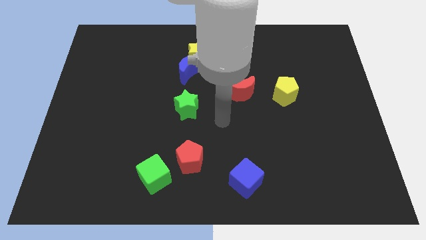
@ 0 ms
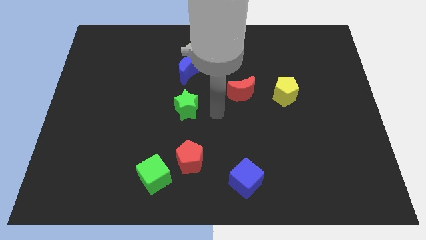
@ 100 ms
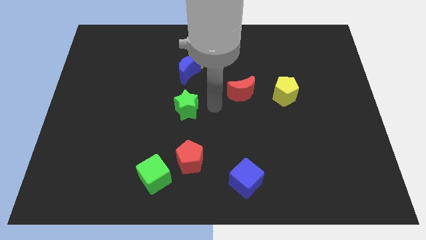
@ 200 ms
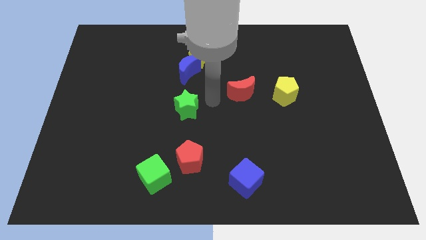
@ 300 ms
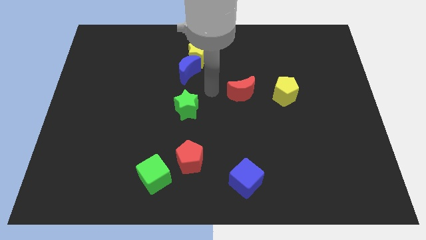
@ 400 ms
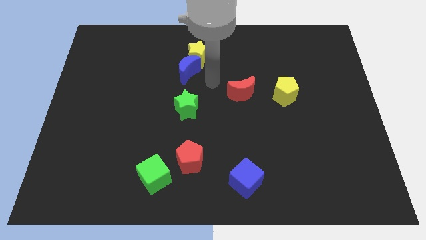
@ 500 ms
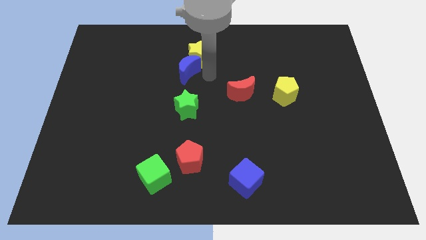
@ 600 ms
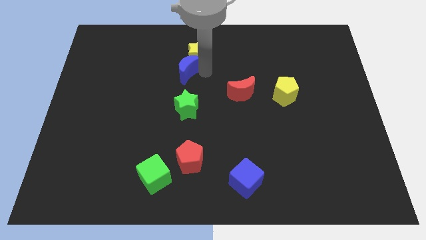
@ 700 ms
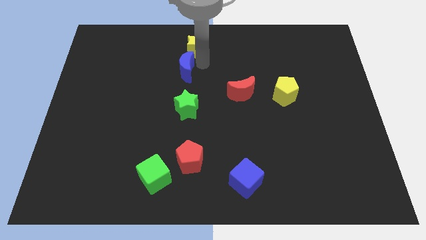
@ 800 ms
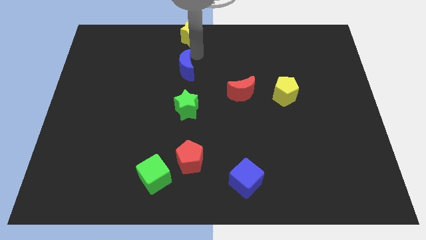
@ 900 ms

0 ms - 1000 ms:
separate the blue moon from the yellow star

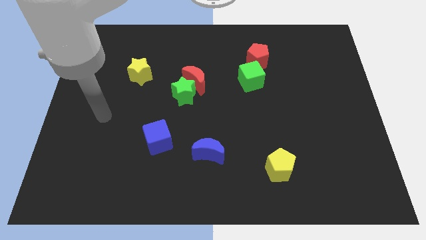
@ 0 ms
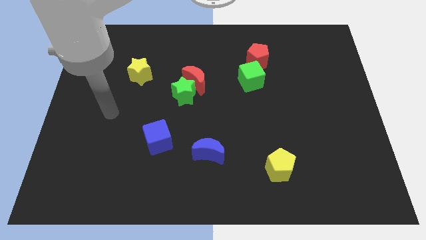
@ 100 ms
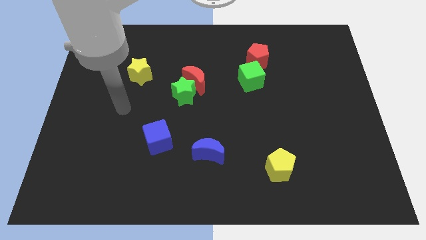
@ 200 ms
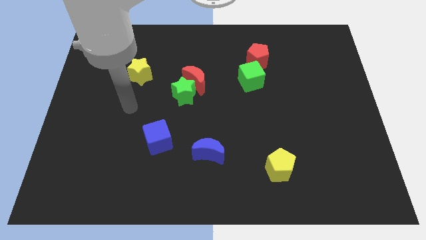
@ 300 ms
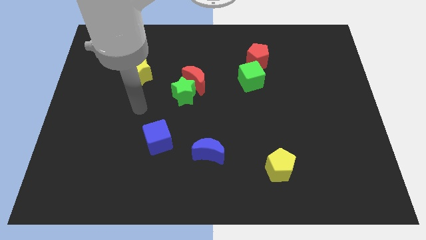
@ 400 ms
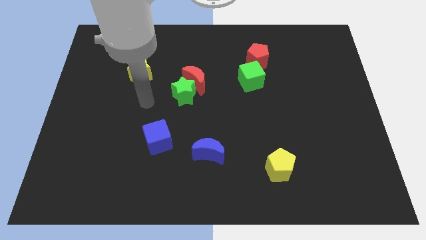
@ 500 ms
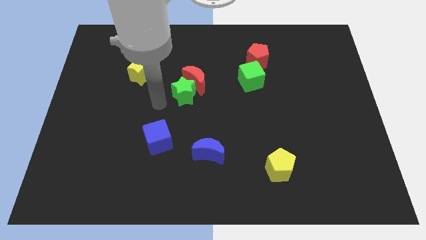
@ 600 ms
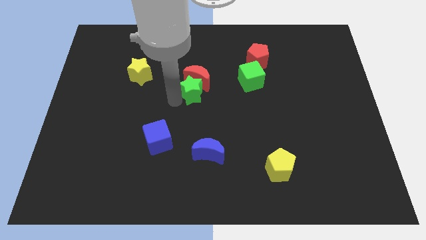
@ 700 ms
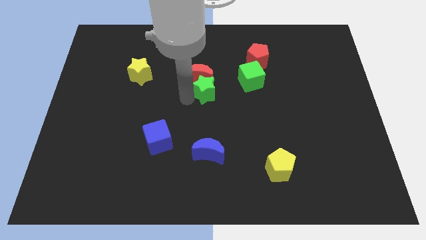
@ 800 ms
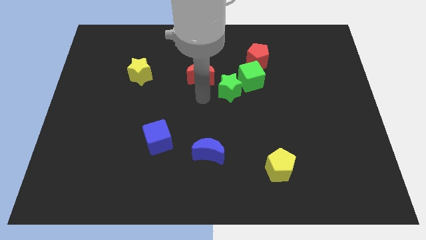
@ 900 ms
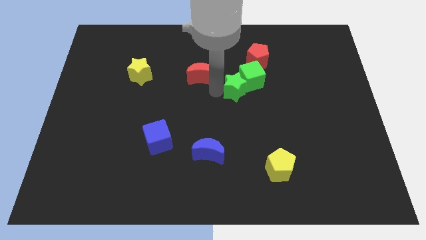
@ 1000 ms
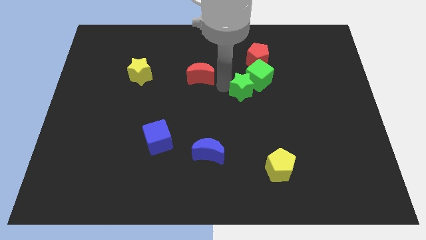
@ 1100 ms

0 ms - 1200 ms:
pull the red moon apart from the green star

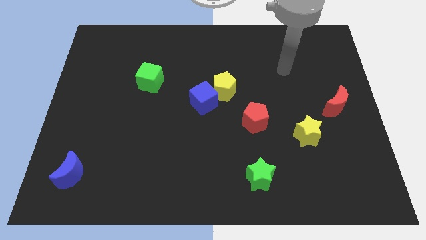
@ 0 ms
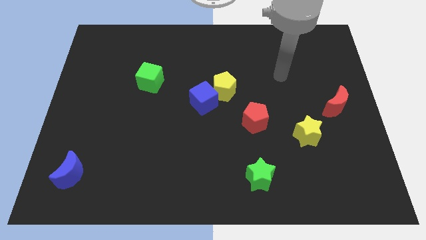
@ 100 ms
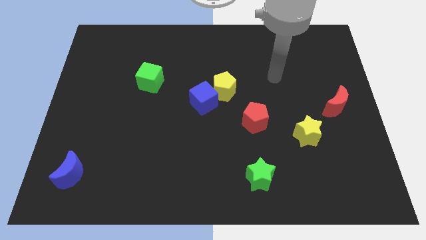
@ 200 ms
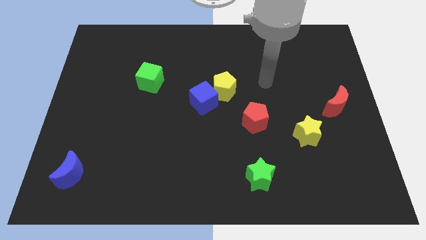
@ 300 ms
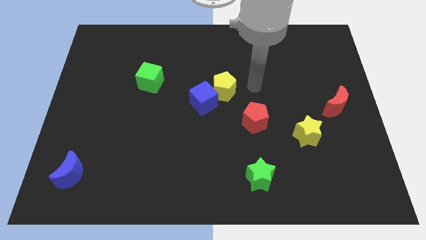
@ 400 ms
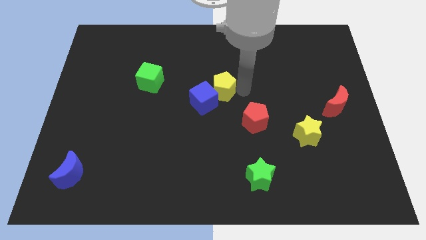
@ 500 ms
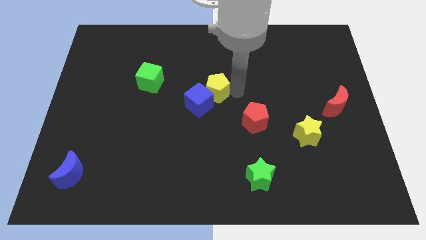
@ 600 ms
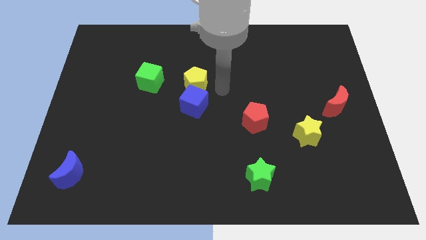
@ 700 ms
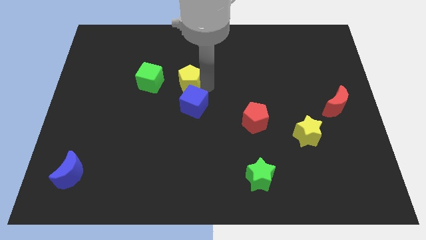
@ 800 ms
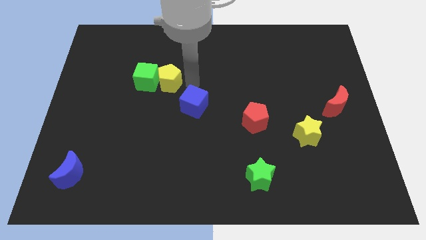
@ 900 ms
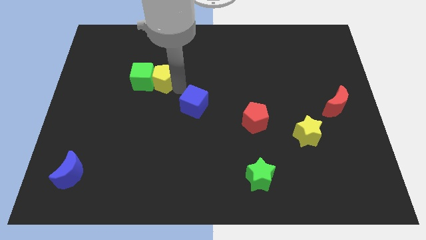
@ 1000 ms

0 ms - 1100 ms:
separate the blue cube from the yellow pentagon

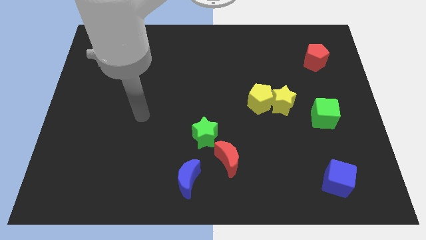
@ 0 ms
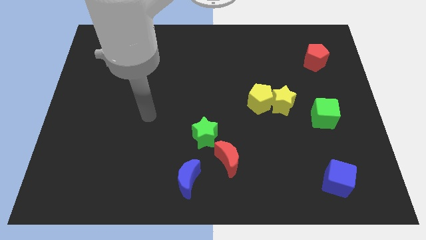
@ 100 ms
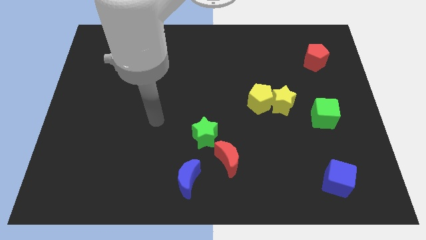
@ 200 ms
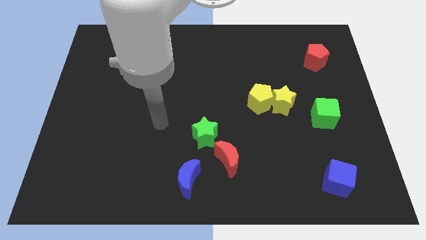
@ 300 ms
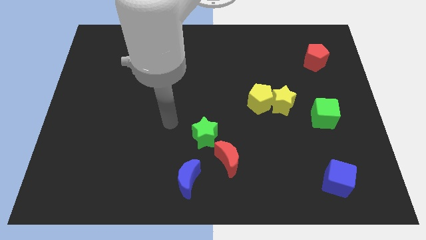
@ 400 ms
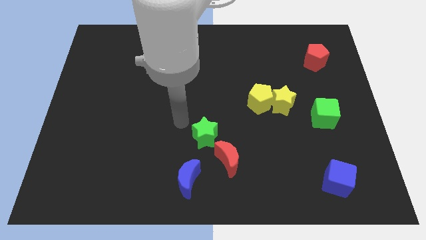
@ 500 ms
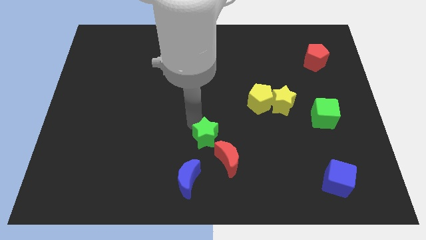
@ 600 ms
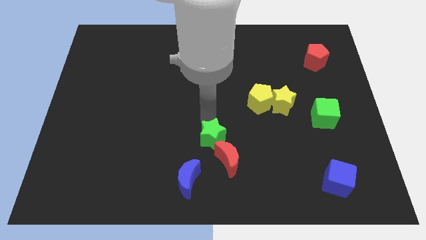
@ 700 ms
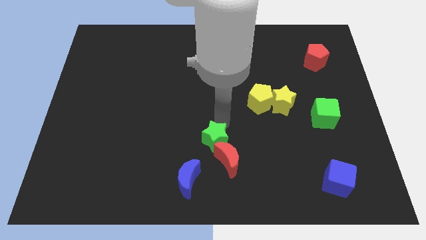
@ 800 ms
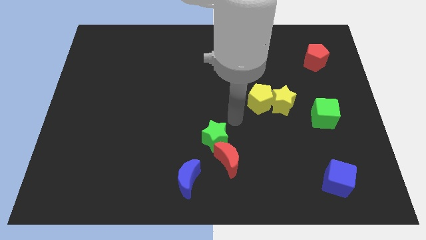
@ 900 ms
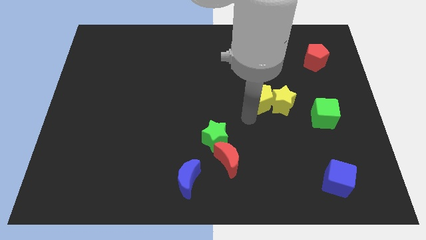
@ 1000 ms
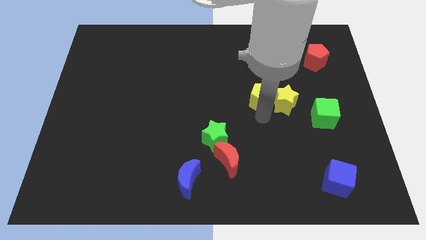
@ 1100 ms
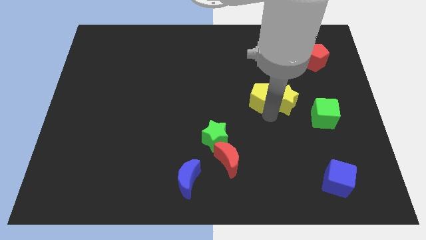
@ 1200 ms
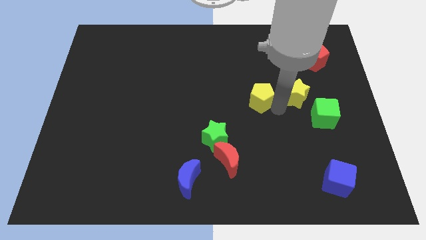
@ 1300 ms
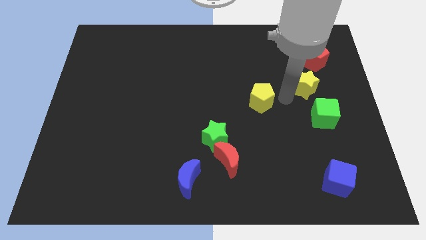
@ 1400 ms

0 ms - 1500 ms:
pull the yellow pentagon apart from the yellow star

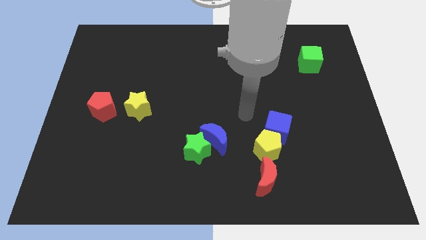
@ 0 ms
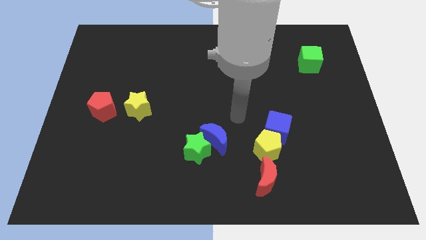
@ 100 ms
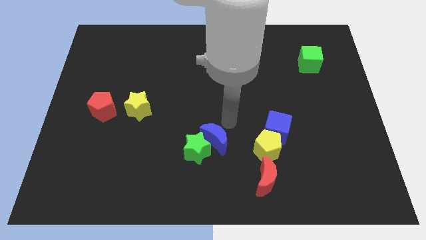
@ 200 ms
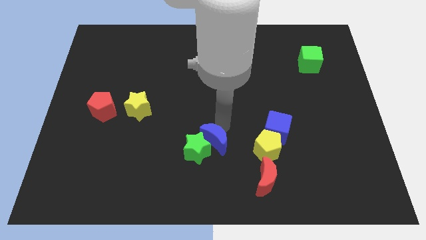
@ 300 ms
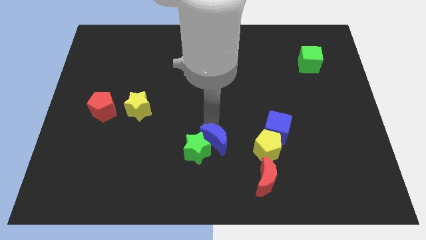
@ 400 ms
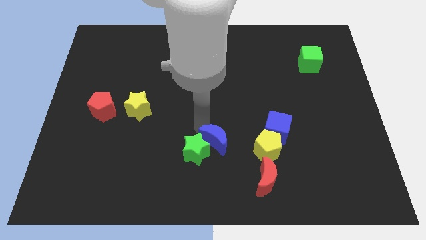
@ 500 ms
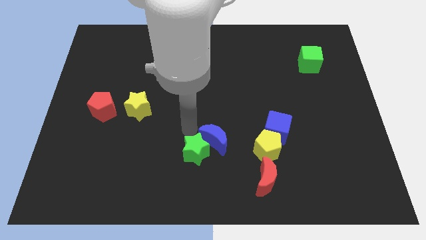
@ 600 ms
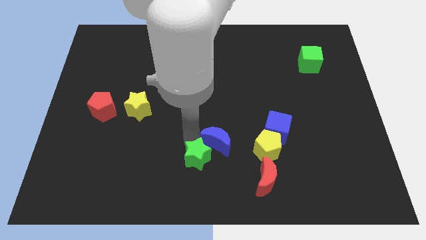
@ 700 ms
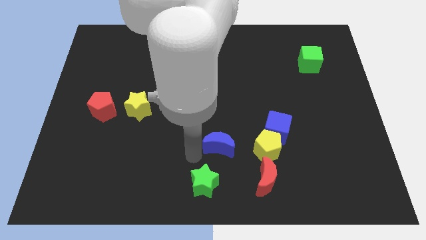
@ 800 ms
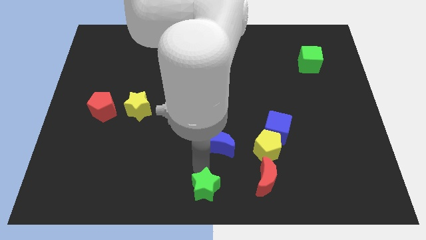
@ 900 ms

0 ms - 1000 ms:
move the blue moon away from the green star

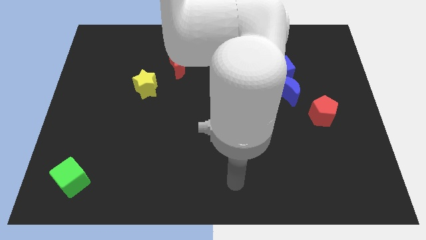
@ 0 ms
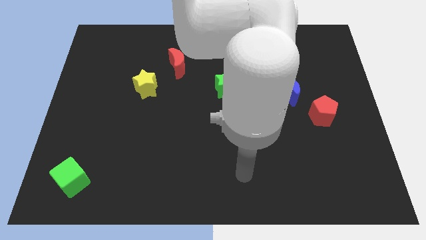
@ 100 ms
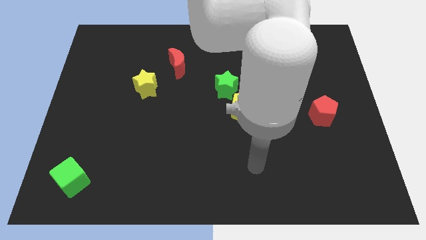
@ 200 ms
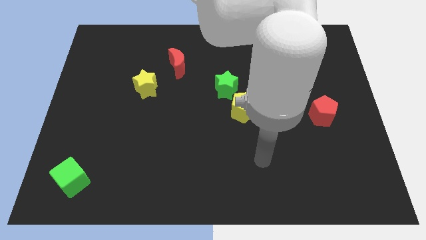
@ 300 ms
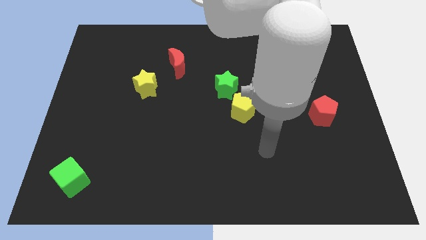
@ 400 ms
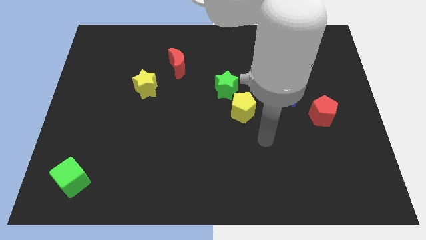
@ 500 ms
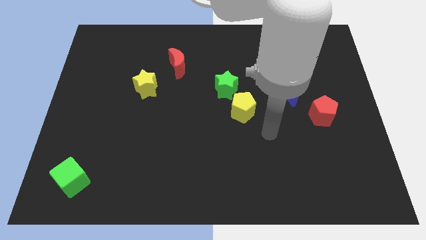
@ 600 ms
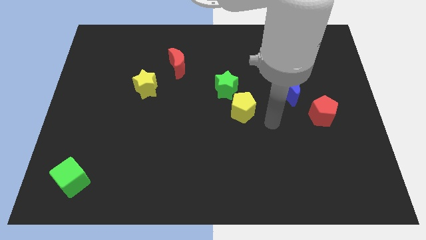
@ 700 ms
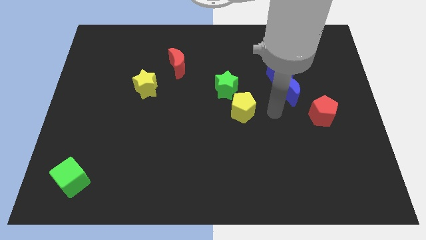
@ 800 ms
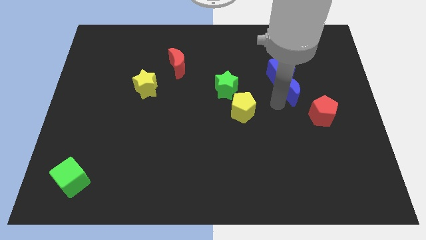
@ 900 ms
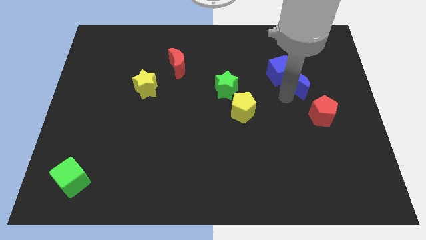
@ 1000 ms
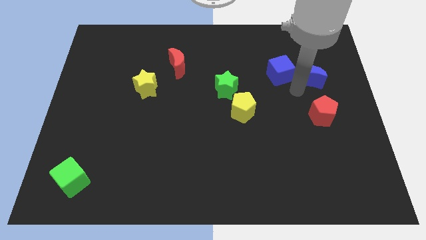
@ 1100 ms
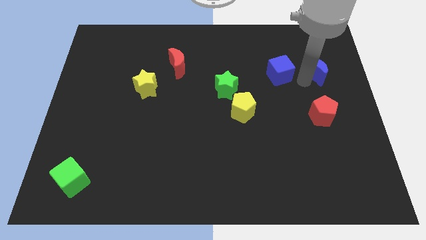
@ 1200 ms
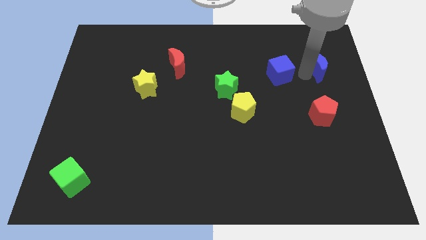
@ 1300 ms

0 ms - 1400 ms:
separate the blue cube from the blue moon

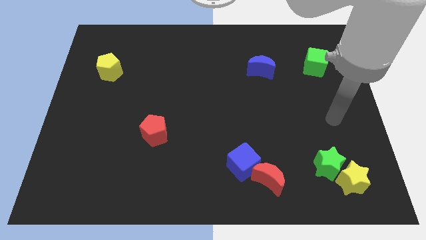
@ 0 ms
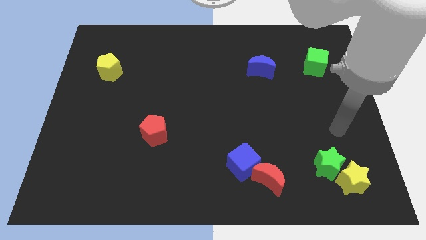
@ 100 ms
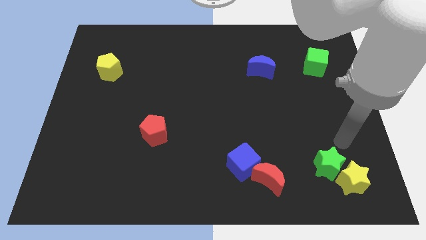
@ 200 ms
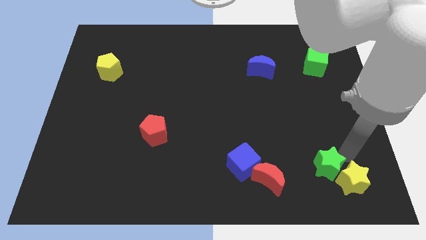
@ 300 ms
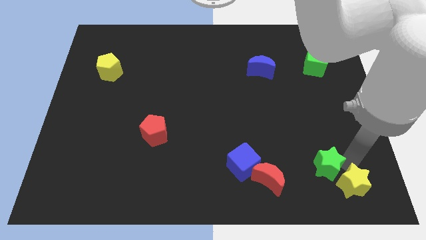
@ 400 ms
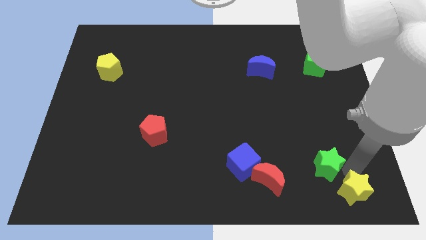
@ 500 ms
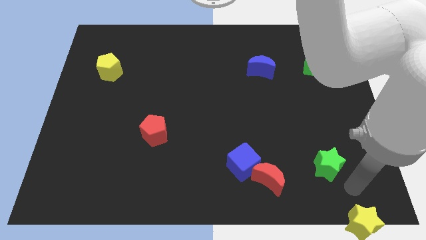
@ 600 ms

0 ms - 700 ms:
separate the green star from the yellow star

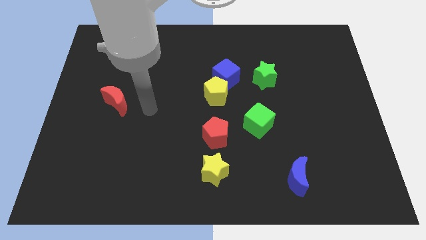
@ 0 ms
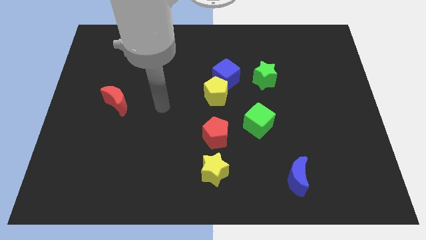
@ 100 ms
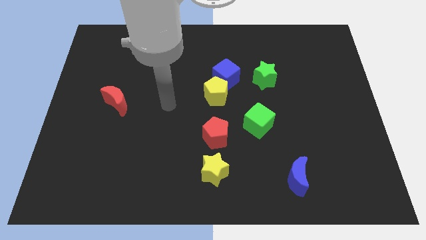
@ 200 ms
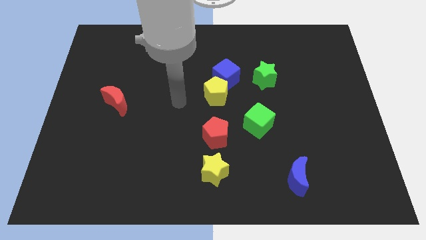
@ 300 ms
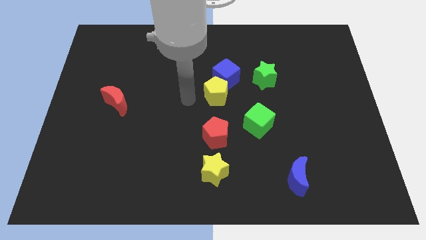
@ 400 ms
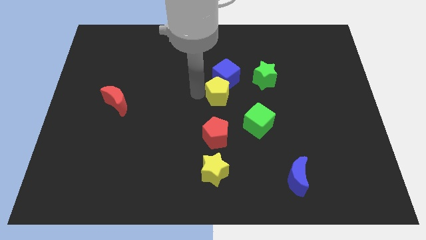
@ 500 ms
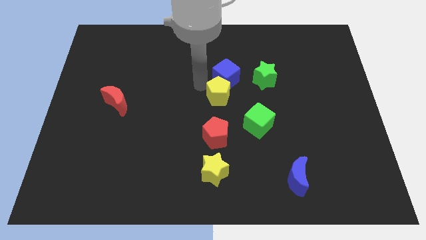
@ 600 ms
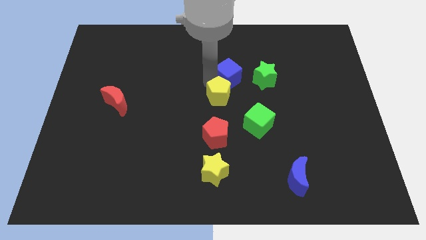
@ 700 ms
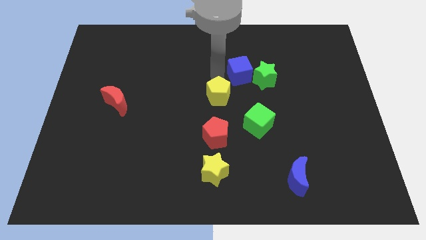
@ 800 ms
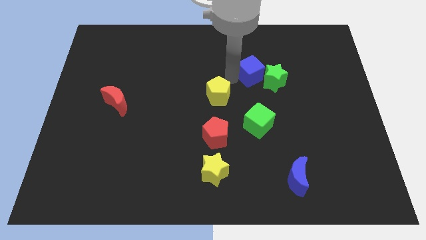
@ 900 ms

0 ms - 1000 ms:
pull the yellow pentagon apart from the blue cube

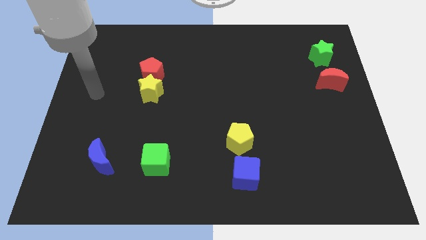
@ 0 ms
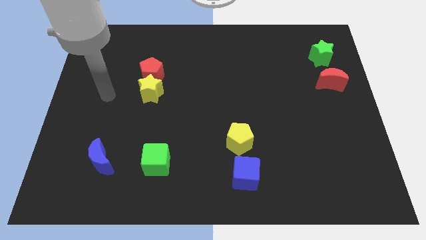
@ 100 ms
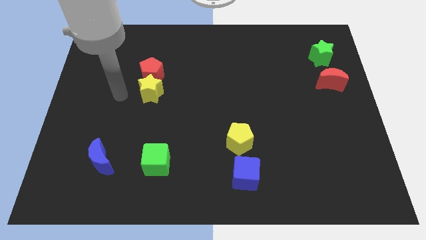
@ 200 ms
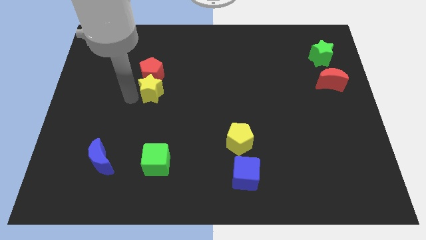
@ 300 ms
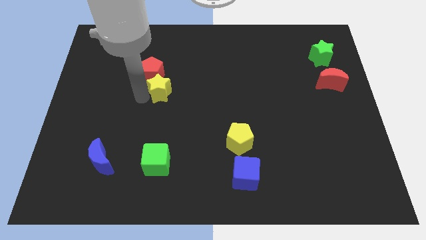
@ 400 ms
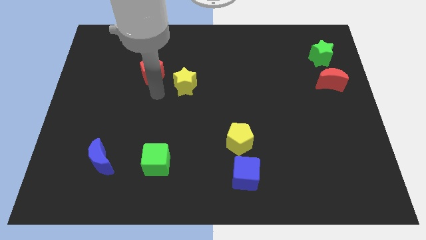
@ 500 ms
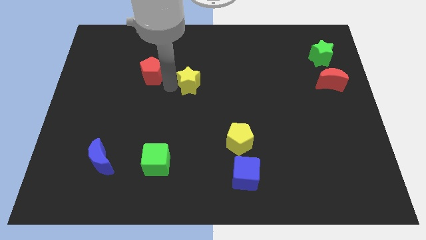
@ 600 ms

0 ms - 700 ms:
move the red pentagon away from the yellow star
